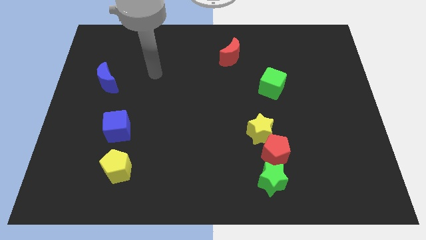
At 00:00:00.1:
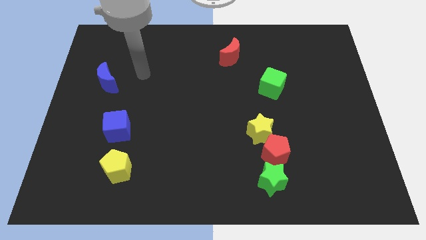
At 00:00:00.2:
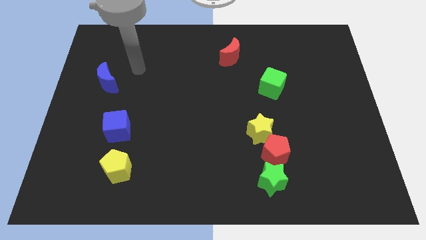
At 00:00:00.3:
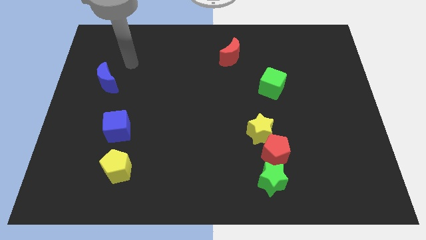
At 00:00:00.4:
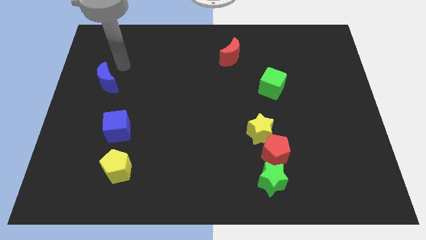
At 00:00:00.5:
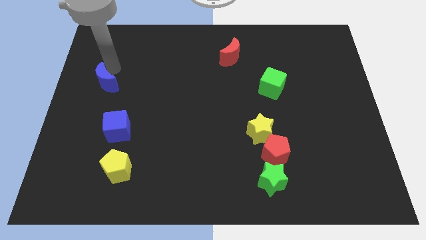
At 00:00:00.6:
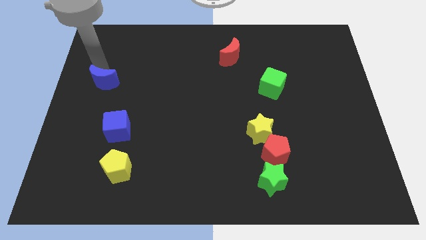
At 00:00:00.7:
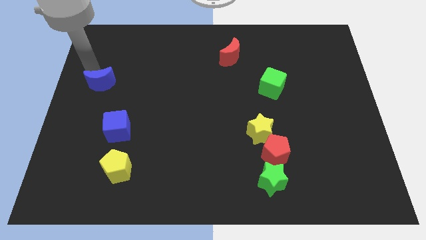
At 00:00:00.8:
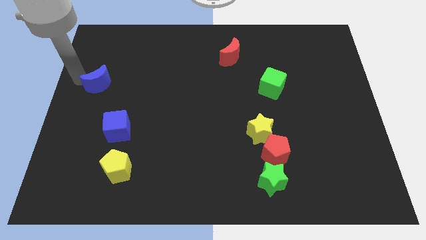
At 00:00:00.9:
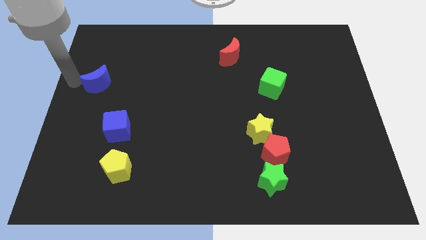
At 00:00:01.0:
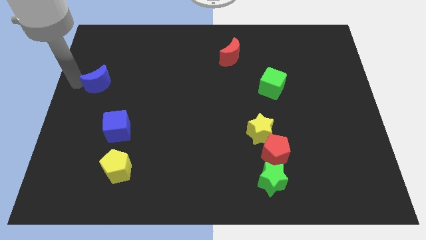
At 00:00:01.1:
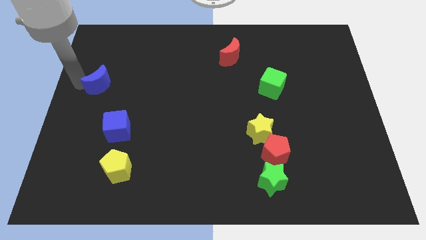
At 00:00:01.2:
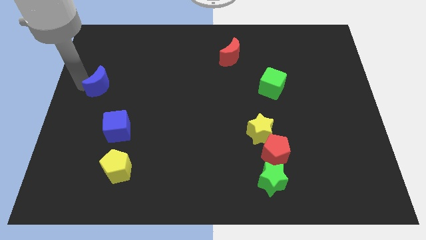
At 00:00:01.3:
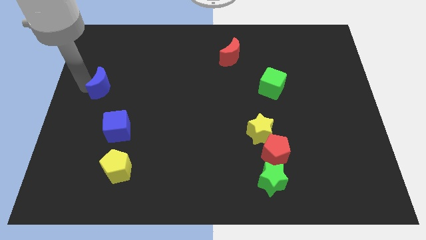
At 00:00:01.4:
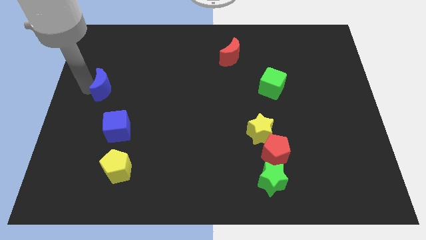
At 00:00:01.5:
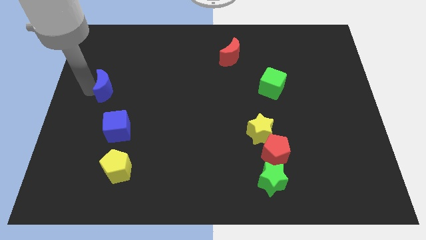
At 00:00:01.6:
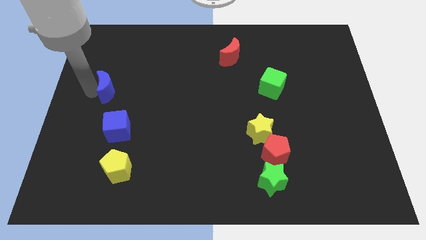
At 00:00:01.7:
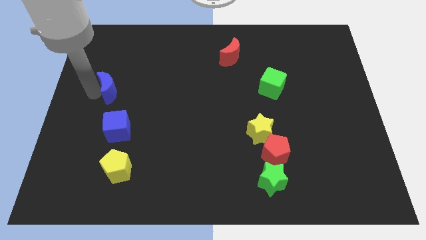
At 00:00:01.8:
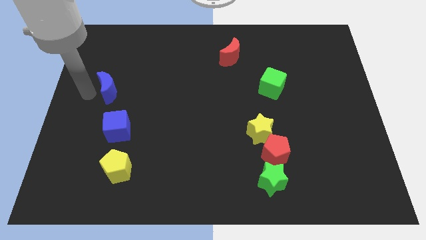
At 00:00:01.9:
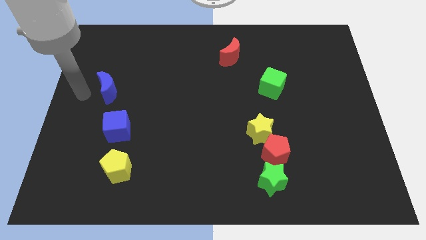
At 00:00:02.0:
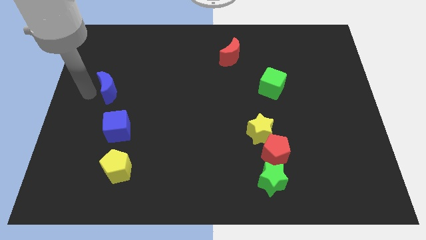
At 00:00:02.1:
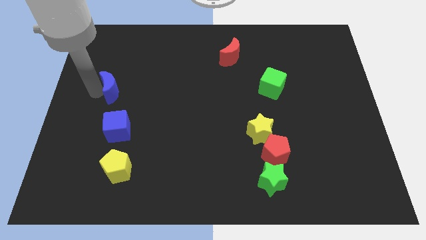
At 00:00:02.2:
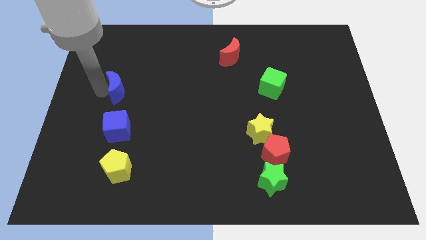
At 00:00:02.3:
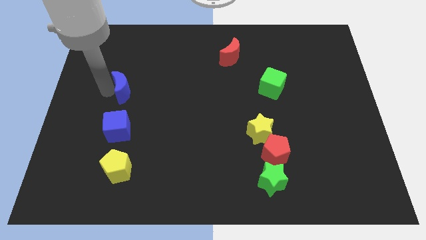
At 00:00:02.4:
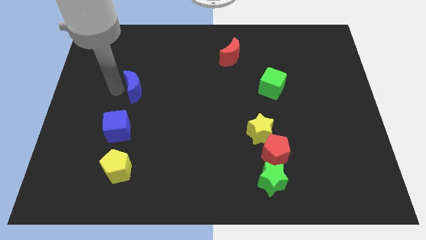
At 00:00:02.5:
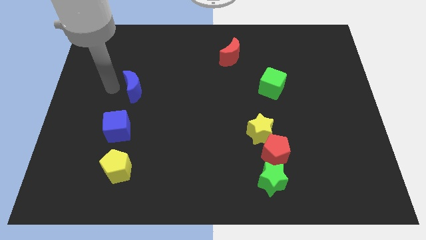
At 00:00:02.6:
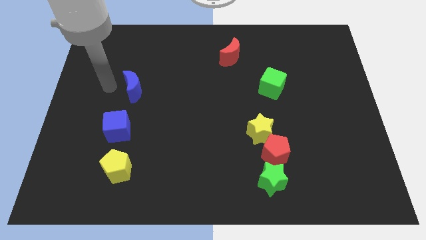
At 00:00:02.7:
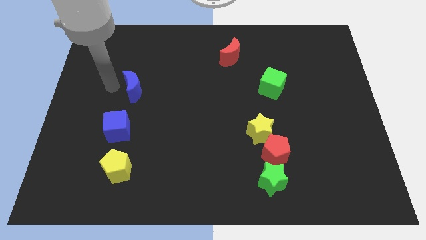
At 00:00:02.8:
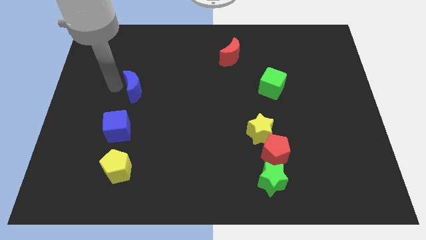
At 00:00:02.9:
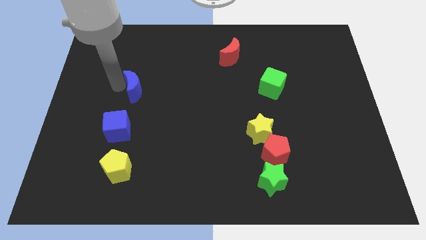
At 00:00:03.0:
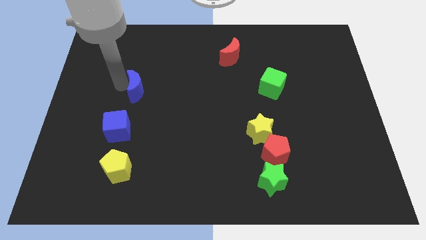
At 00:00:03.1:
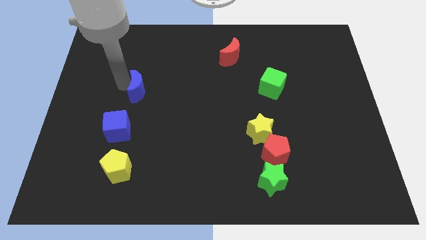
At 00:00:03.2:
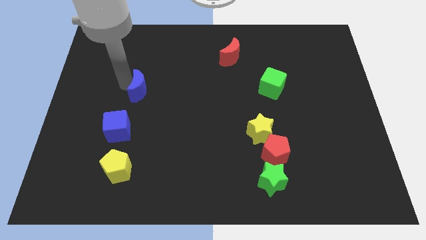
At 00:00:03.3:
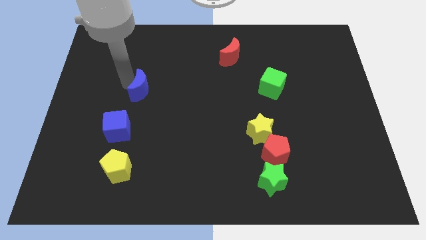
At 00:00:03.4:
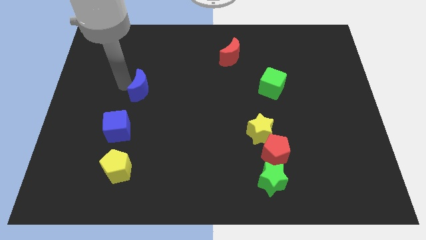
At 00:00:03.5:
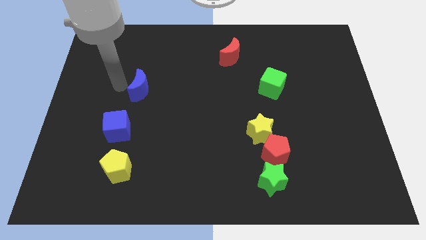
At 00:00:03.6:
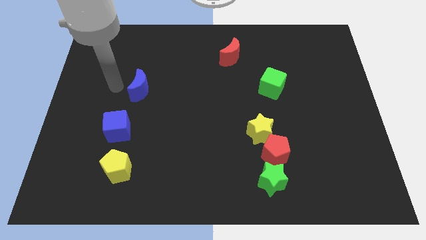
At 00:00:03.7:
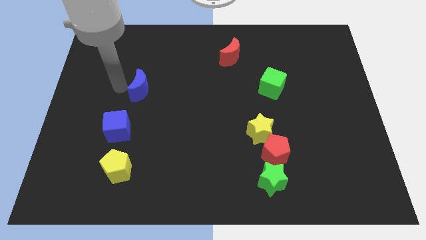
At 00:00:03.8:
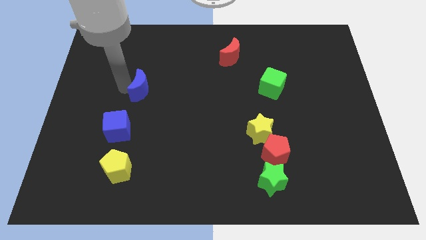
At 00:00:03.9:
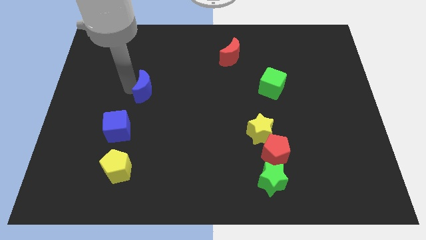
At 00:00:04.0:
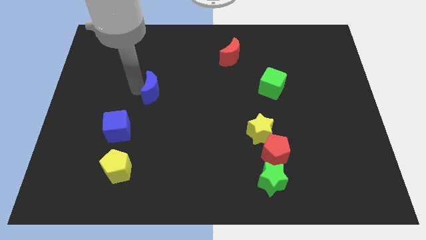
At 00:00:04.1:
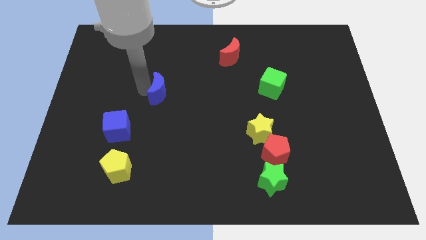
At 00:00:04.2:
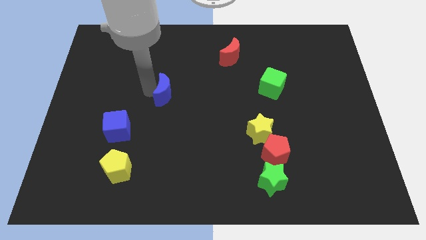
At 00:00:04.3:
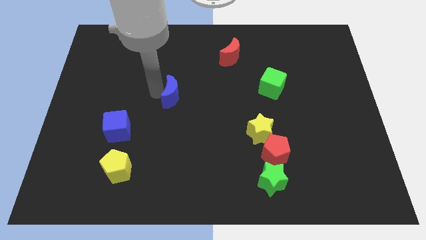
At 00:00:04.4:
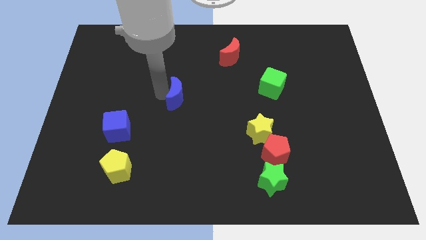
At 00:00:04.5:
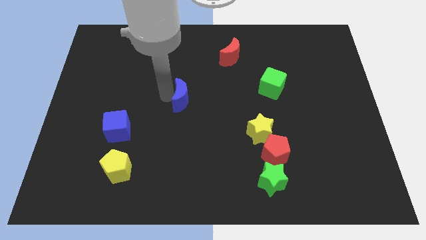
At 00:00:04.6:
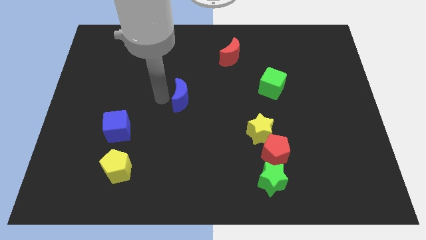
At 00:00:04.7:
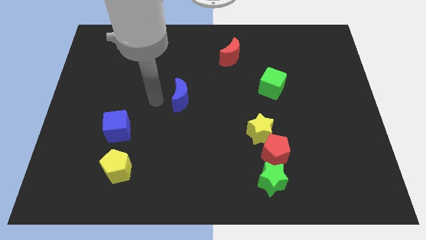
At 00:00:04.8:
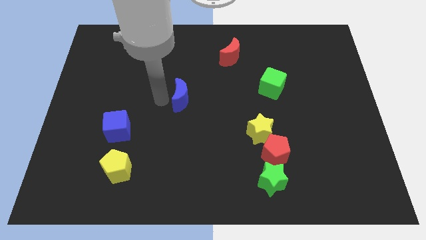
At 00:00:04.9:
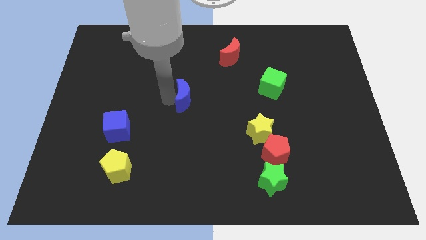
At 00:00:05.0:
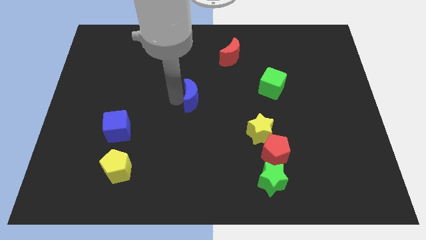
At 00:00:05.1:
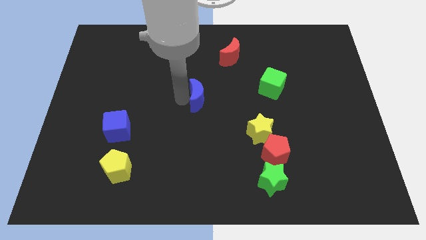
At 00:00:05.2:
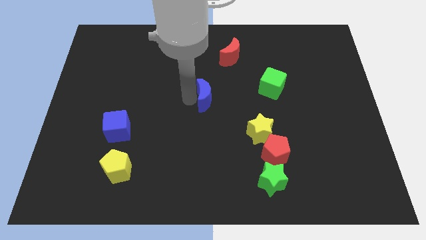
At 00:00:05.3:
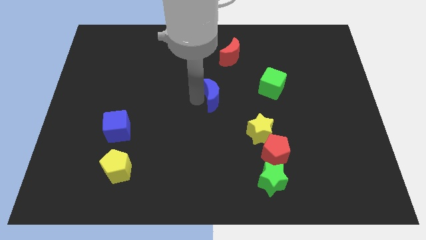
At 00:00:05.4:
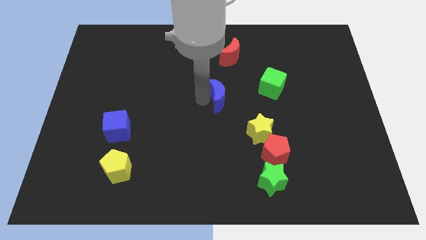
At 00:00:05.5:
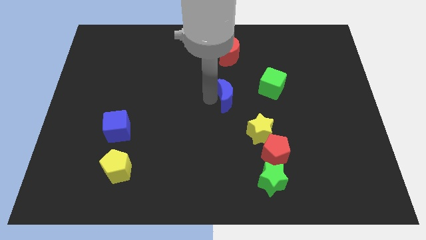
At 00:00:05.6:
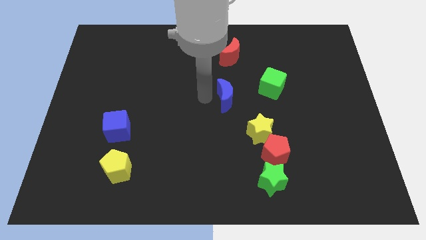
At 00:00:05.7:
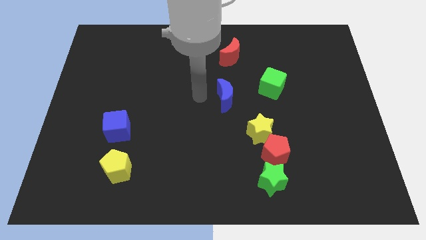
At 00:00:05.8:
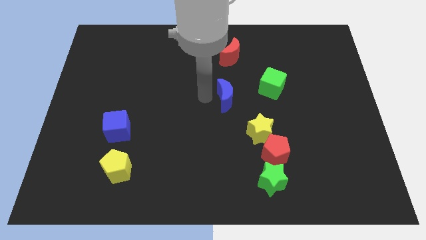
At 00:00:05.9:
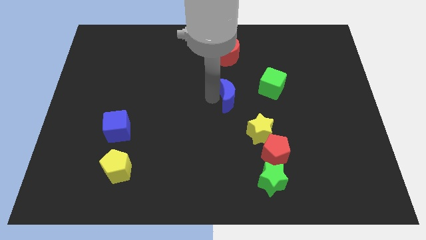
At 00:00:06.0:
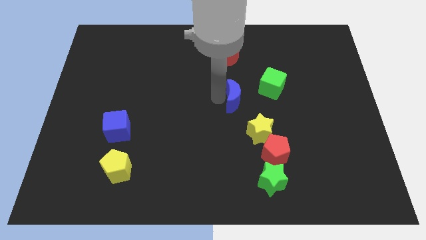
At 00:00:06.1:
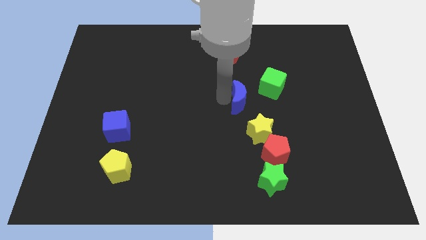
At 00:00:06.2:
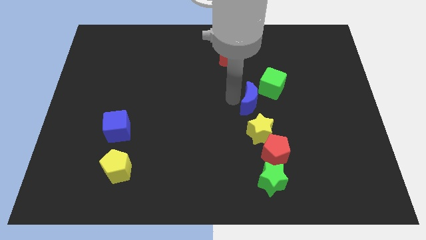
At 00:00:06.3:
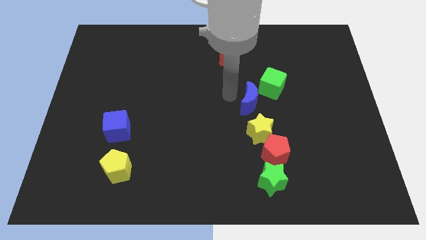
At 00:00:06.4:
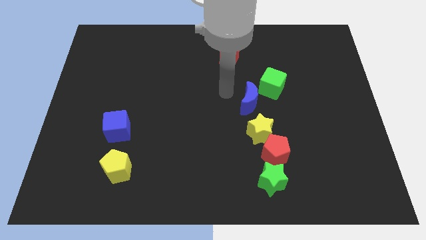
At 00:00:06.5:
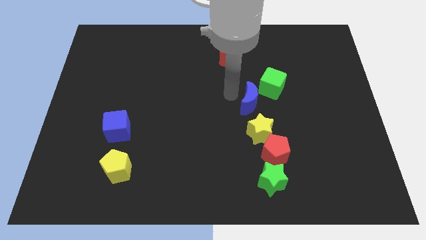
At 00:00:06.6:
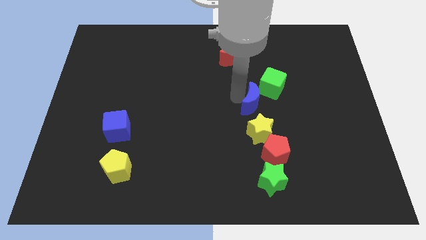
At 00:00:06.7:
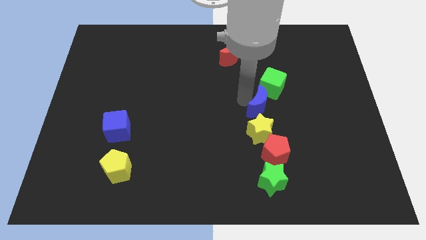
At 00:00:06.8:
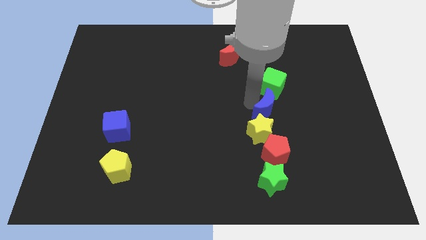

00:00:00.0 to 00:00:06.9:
slide the blue moon diagonally up and to the right of the yellow star
